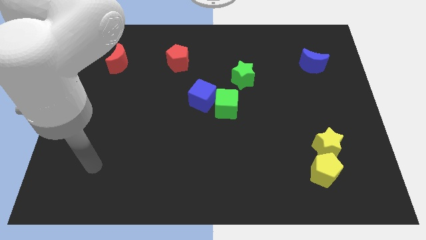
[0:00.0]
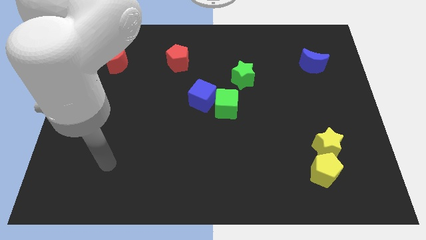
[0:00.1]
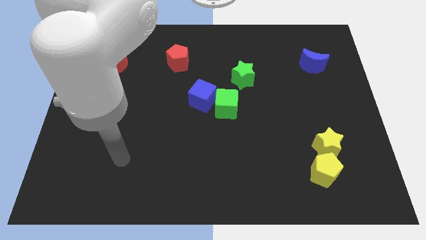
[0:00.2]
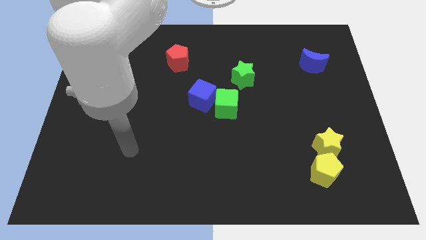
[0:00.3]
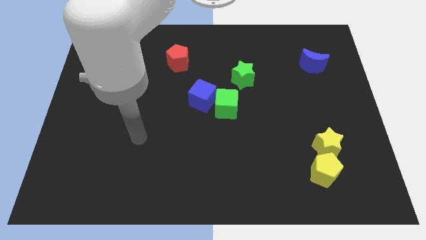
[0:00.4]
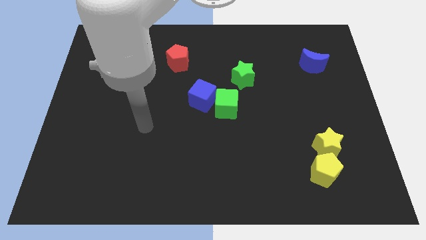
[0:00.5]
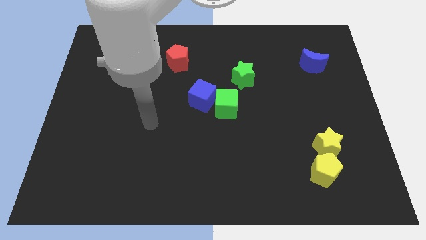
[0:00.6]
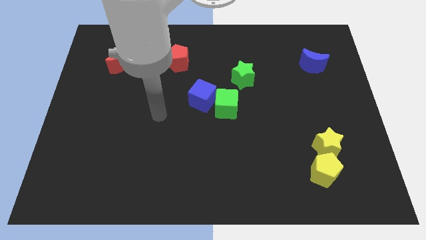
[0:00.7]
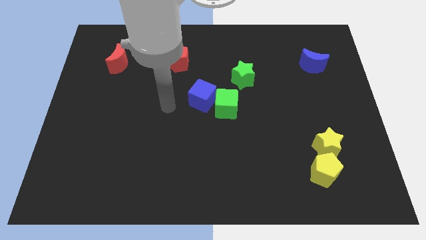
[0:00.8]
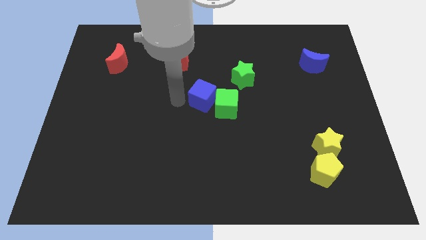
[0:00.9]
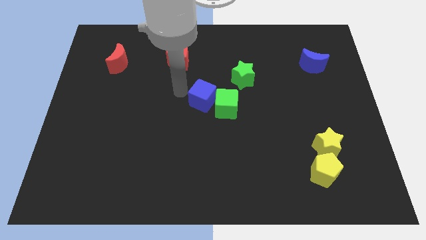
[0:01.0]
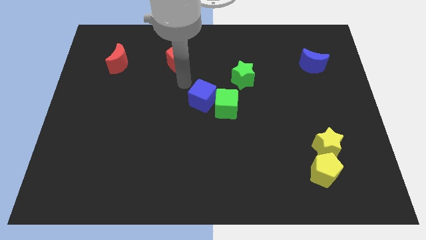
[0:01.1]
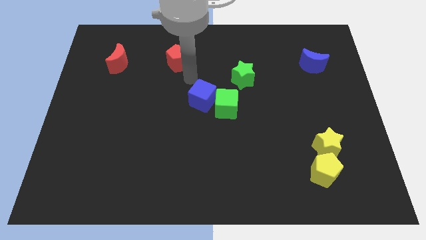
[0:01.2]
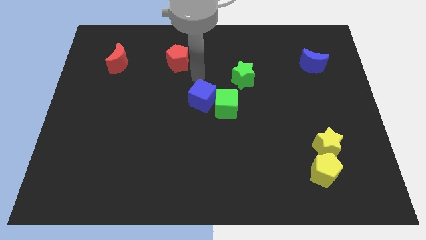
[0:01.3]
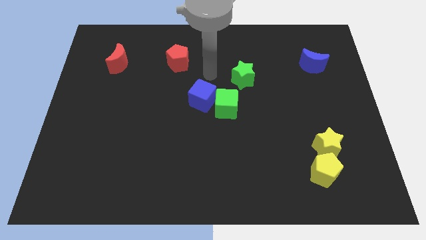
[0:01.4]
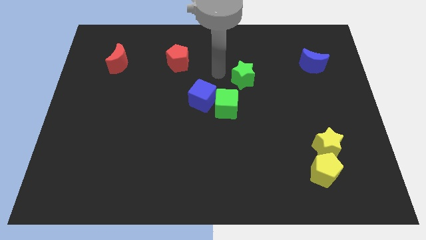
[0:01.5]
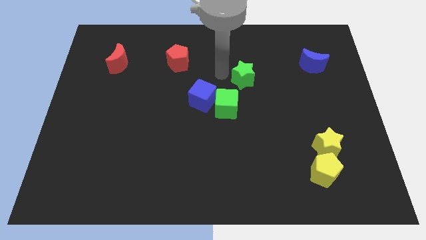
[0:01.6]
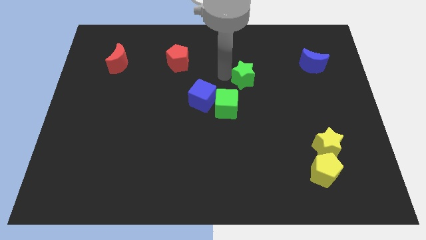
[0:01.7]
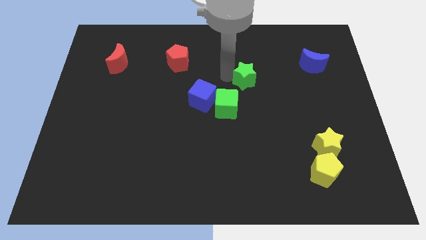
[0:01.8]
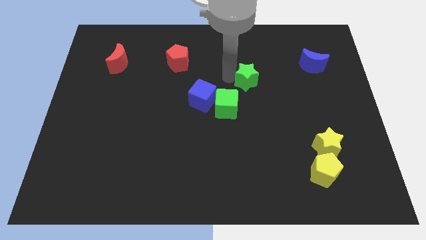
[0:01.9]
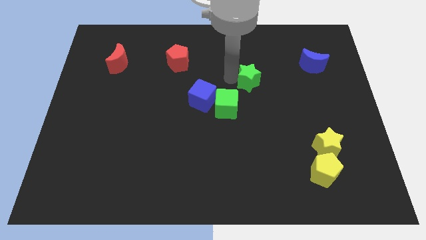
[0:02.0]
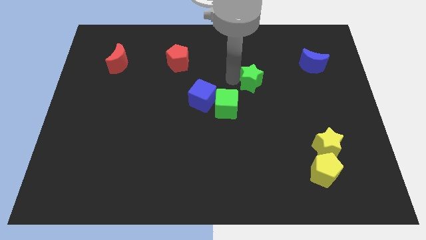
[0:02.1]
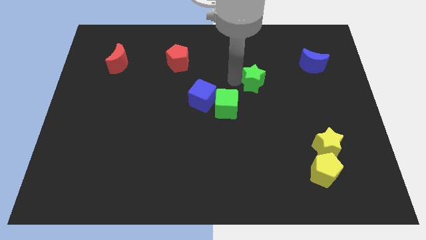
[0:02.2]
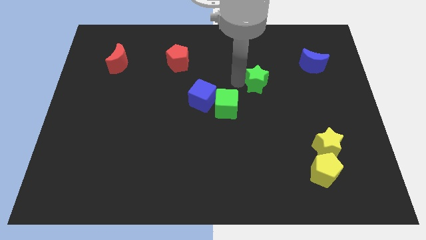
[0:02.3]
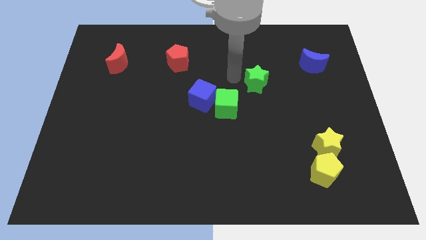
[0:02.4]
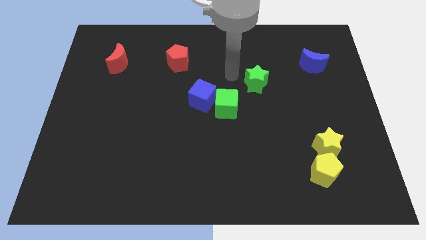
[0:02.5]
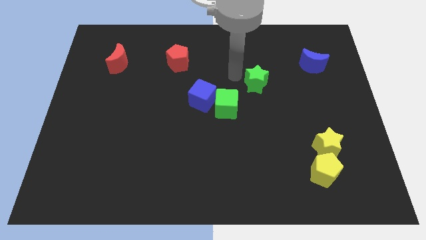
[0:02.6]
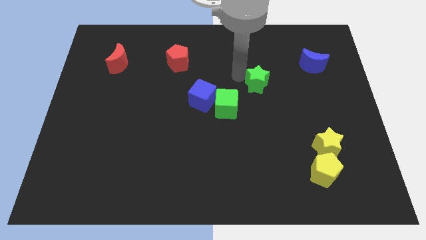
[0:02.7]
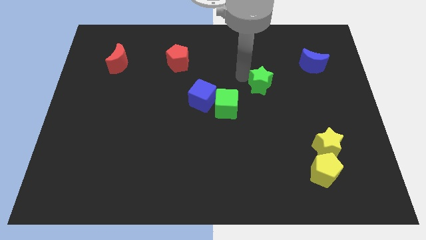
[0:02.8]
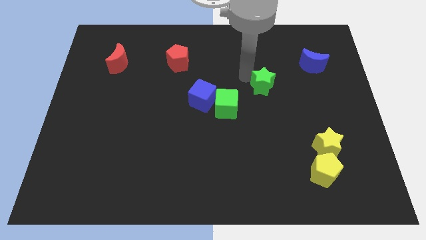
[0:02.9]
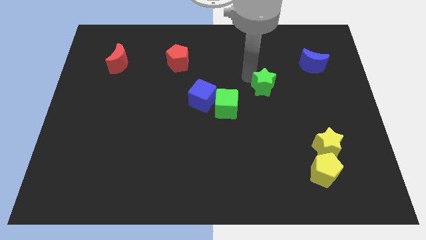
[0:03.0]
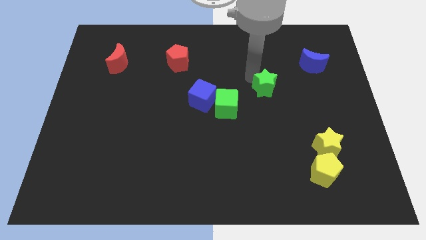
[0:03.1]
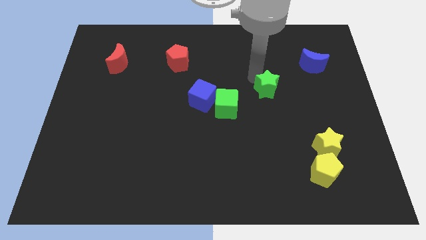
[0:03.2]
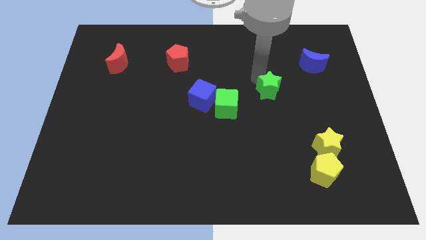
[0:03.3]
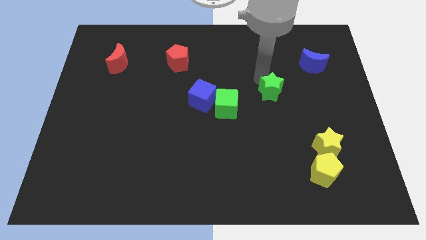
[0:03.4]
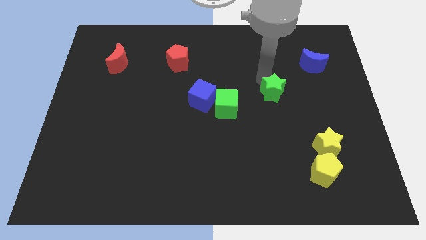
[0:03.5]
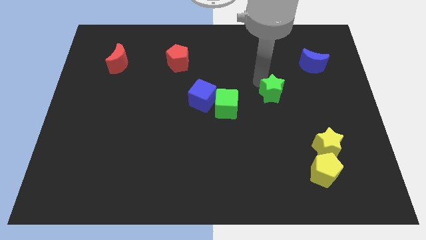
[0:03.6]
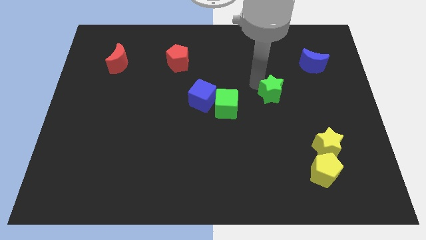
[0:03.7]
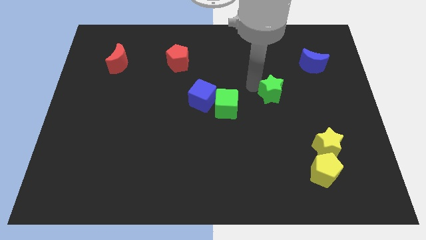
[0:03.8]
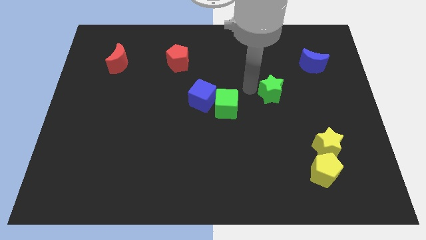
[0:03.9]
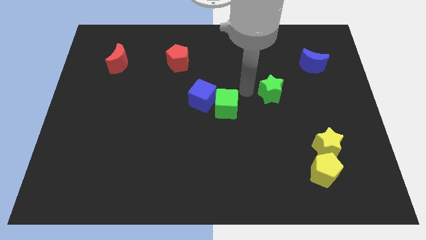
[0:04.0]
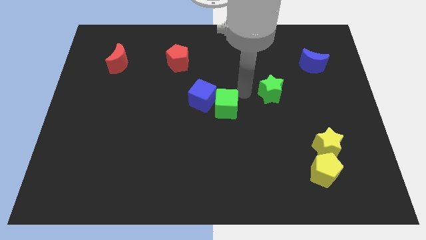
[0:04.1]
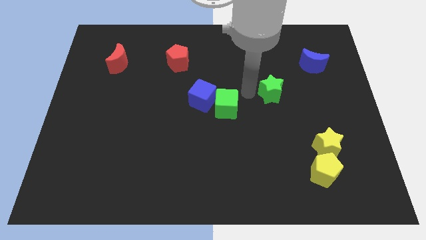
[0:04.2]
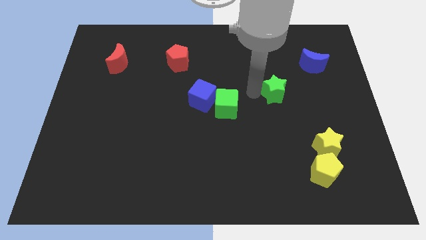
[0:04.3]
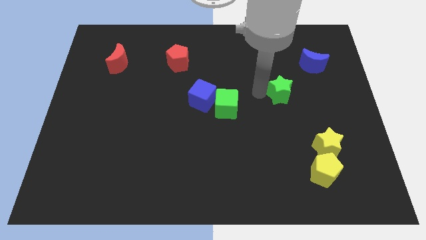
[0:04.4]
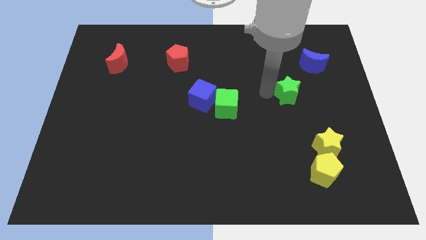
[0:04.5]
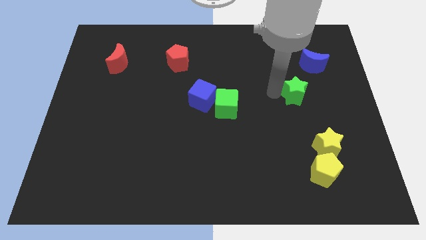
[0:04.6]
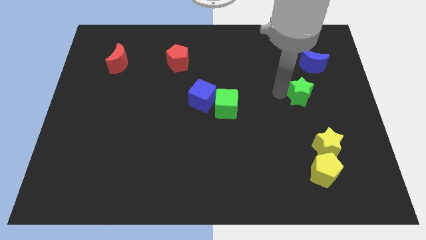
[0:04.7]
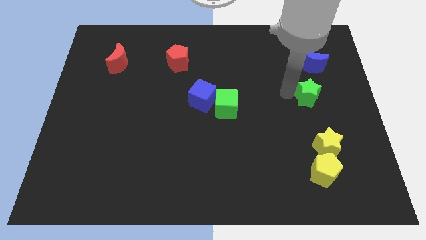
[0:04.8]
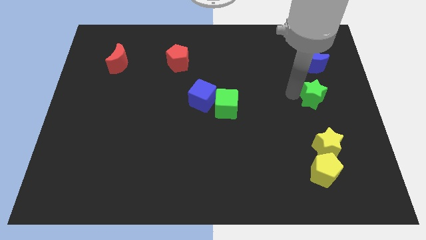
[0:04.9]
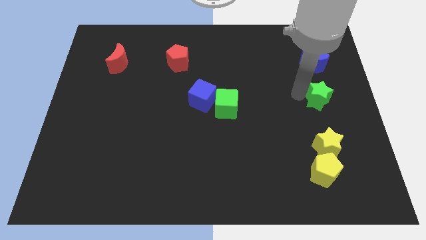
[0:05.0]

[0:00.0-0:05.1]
move the green star to the right side of the board

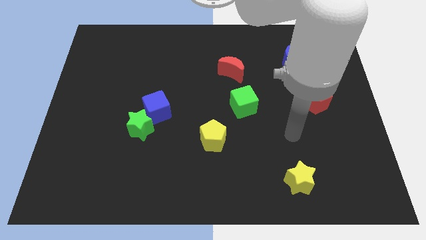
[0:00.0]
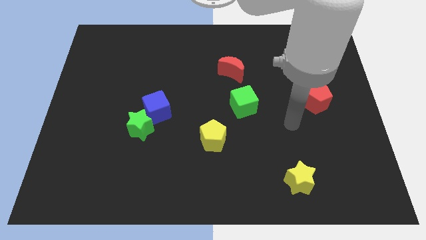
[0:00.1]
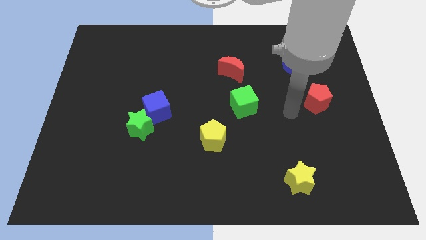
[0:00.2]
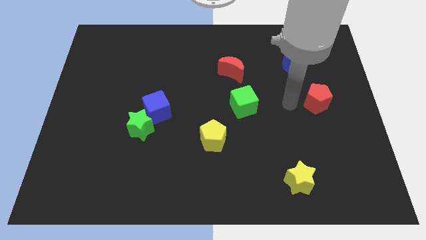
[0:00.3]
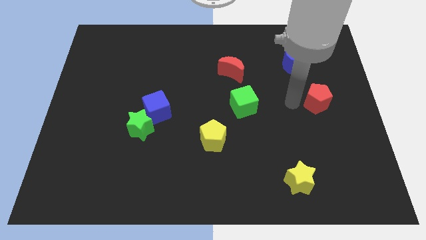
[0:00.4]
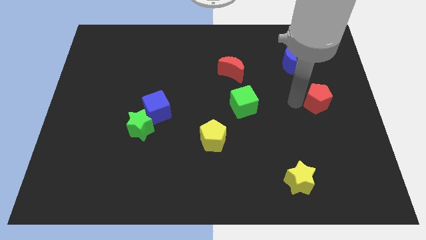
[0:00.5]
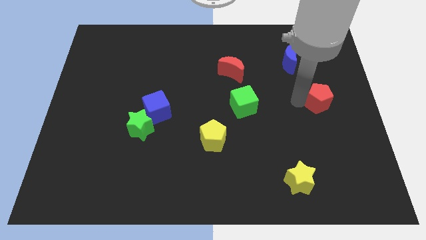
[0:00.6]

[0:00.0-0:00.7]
push the red pentagon to the right side of the board

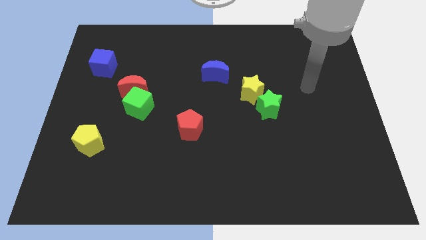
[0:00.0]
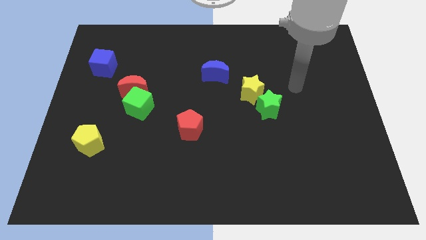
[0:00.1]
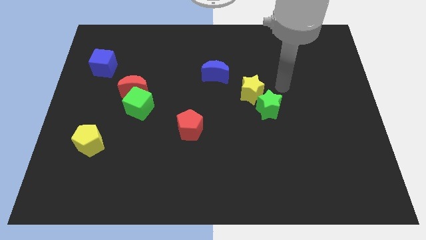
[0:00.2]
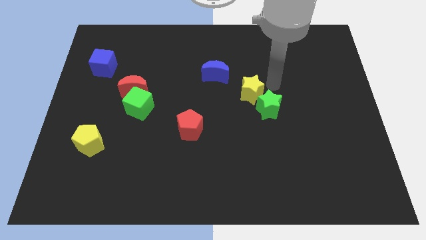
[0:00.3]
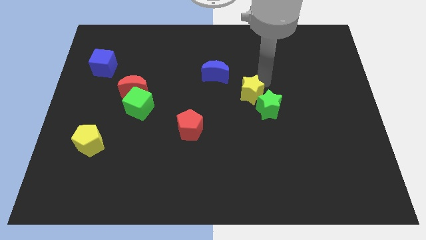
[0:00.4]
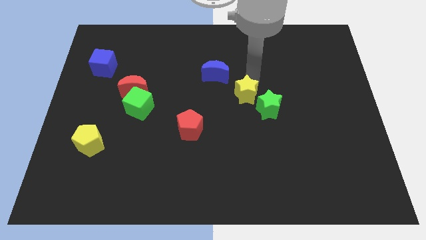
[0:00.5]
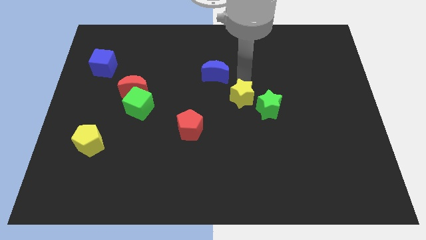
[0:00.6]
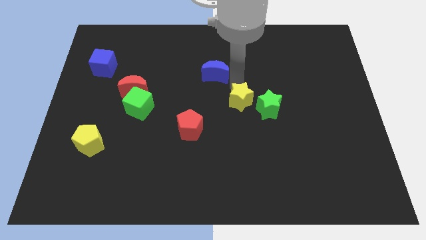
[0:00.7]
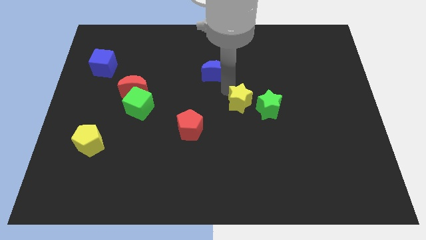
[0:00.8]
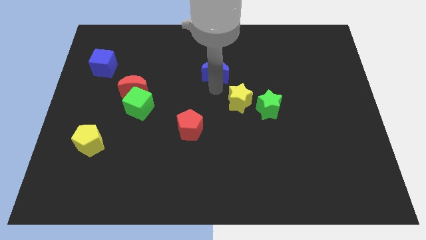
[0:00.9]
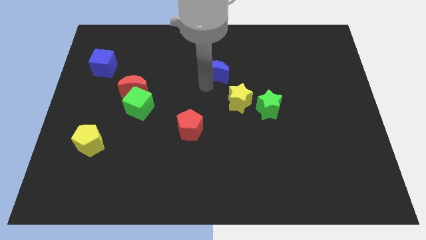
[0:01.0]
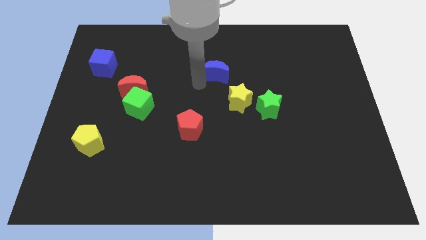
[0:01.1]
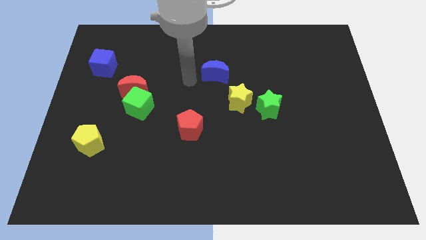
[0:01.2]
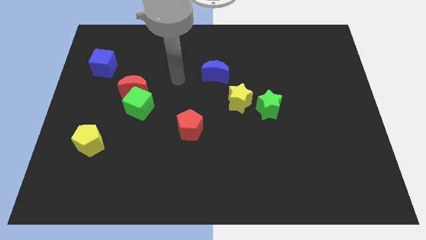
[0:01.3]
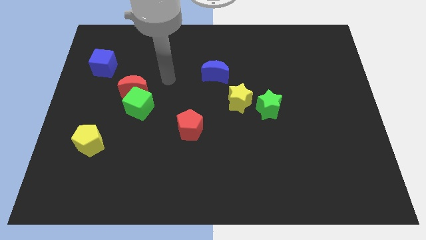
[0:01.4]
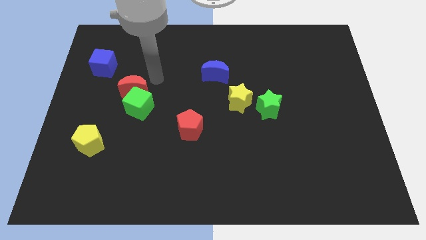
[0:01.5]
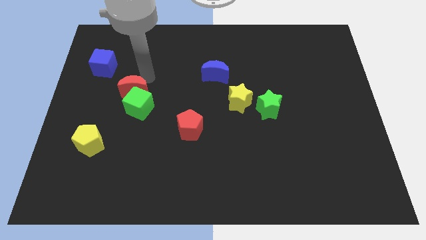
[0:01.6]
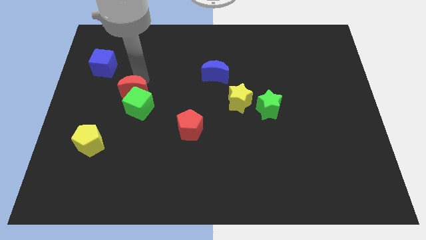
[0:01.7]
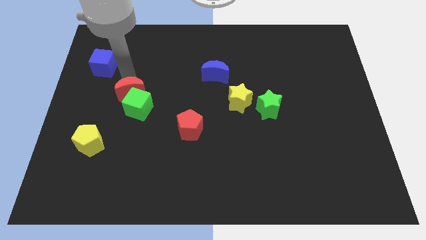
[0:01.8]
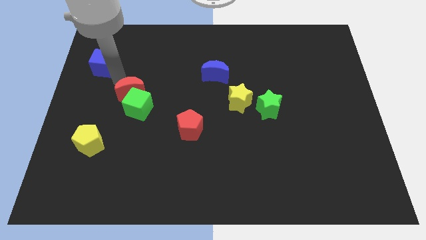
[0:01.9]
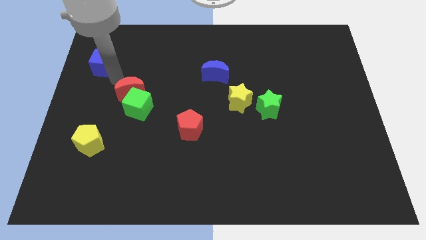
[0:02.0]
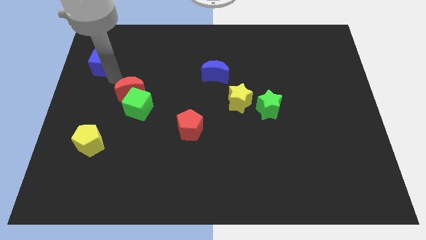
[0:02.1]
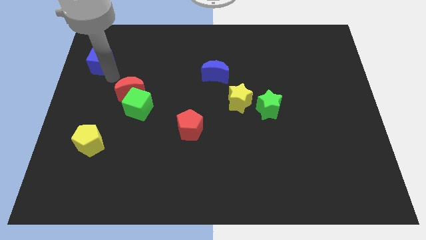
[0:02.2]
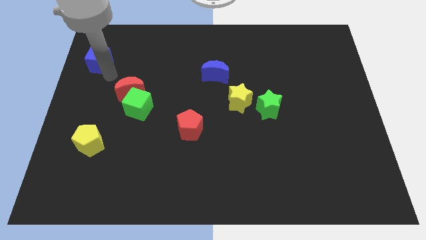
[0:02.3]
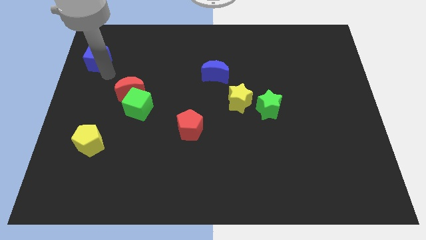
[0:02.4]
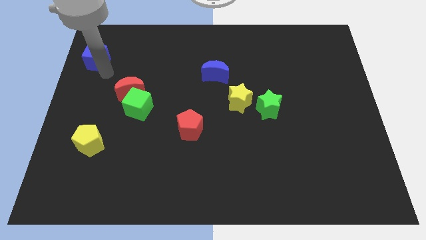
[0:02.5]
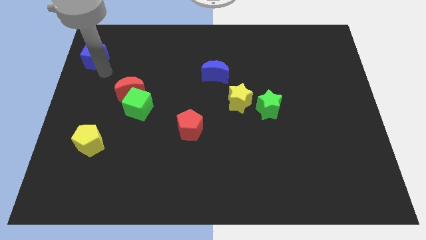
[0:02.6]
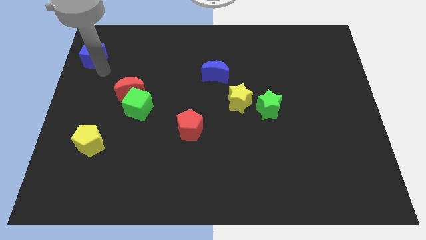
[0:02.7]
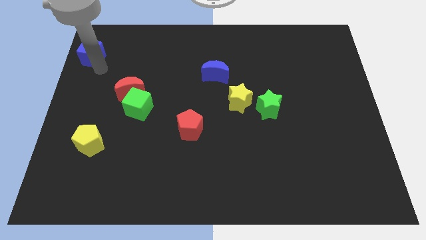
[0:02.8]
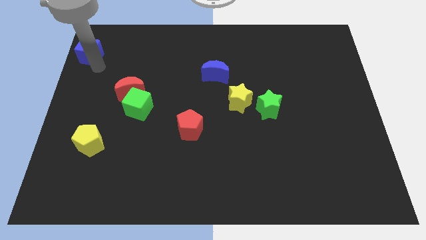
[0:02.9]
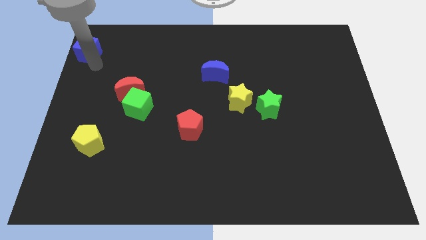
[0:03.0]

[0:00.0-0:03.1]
put the blue cube to the upper left corner
